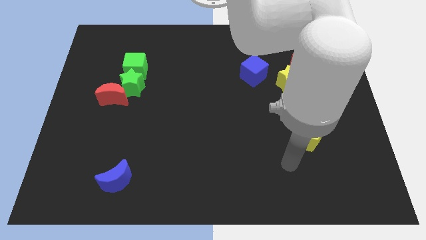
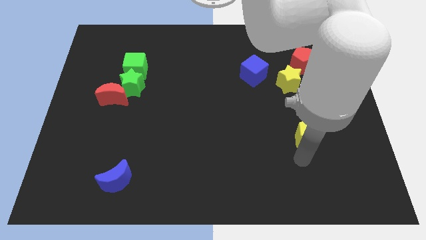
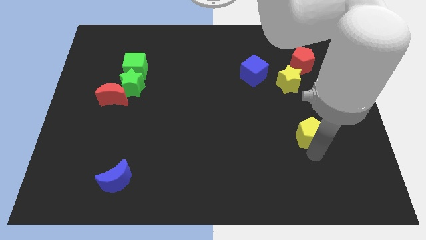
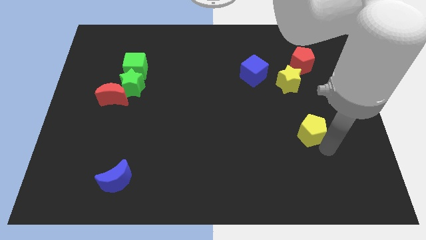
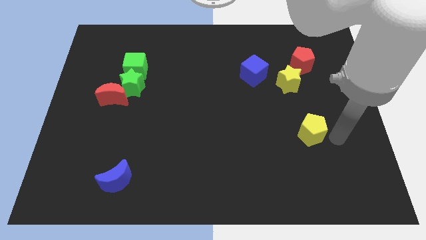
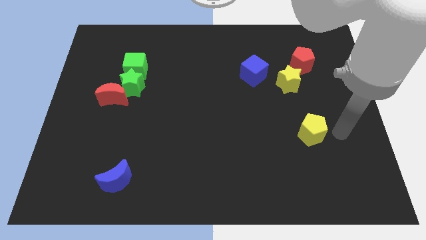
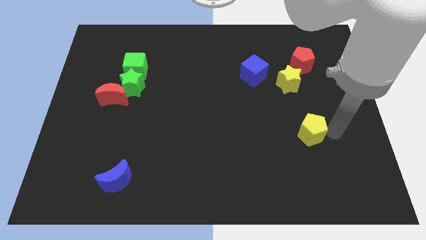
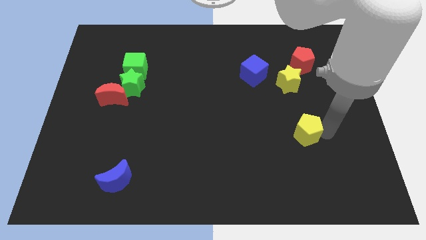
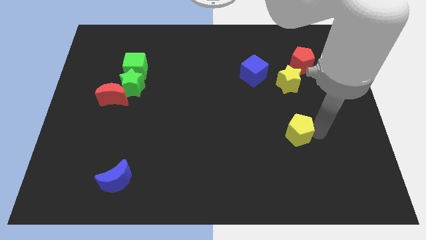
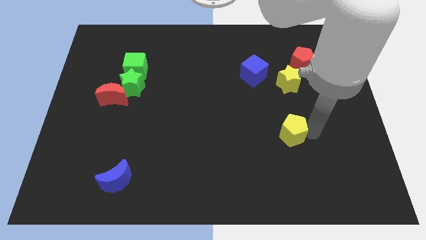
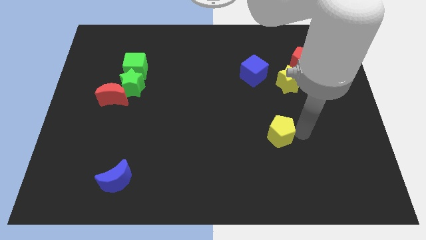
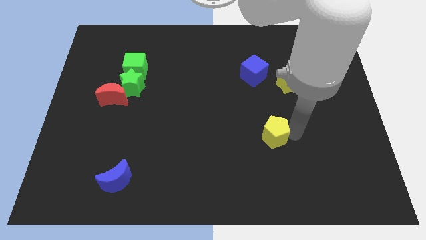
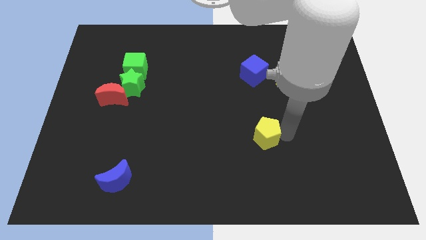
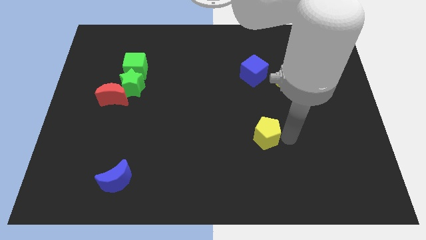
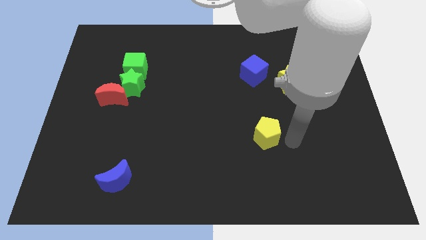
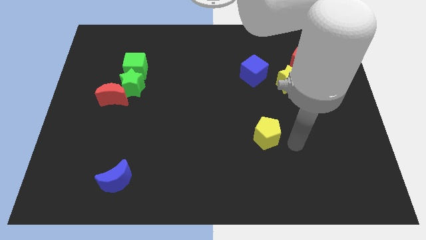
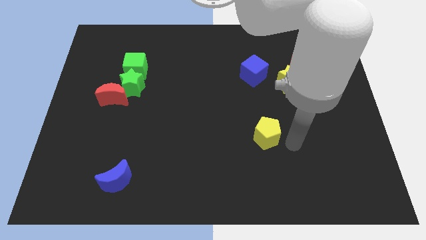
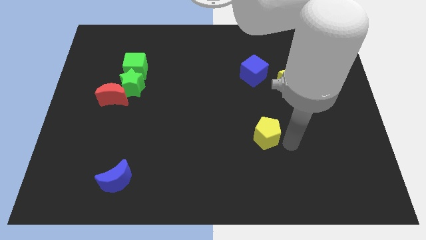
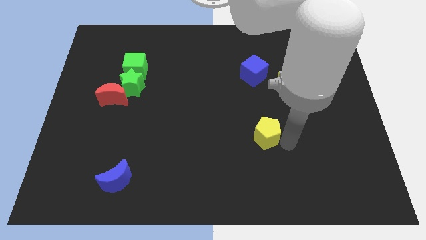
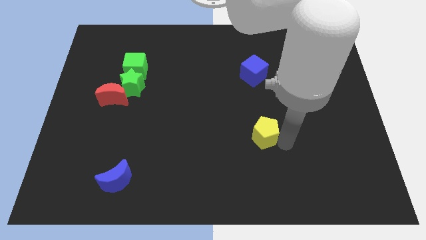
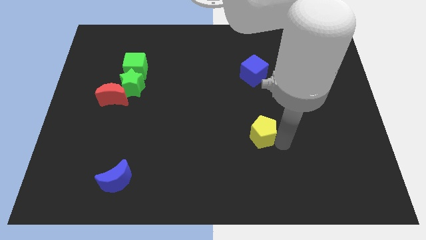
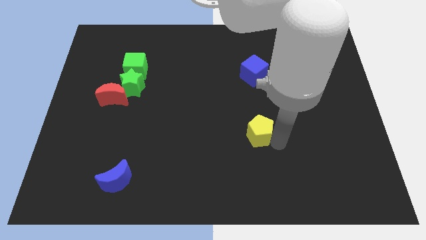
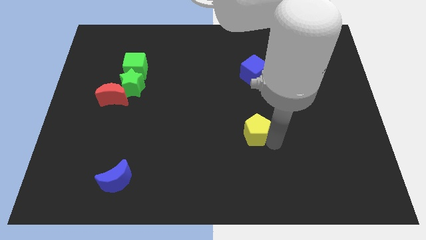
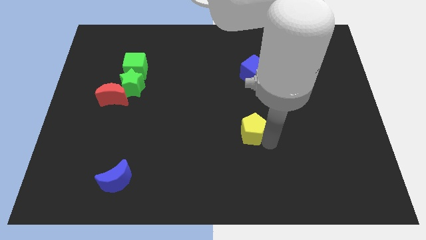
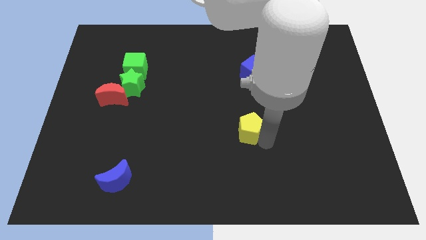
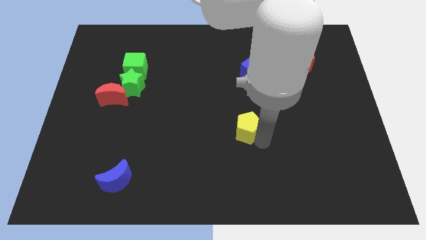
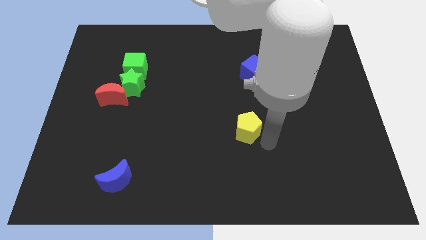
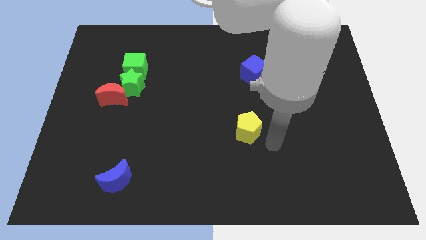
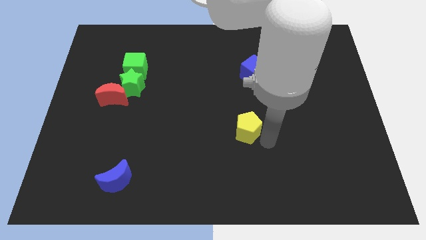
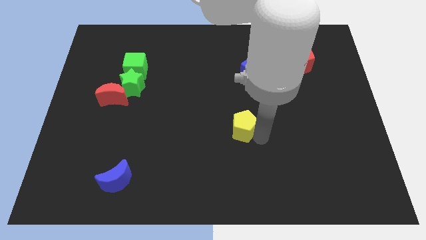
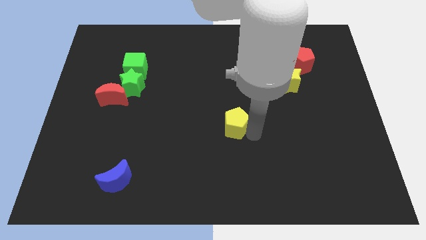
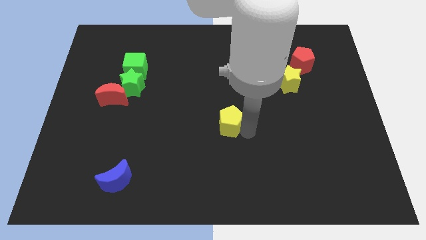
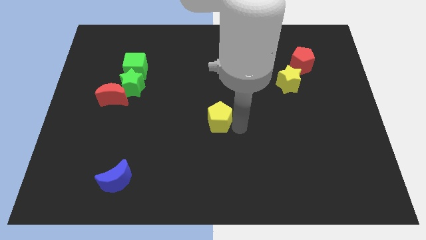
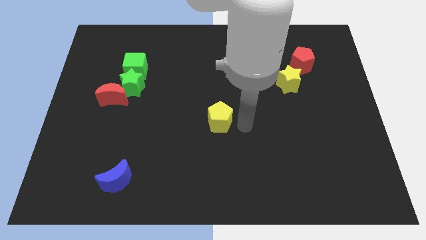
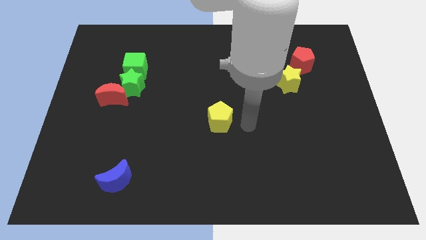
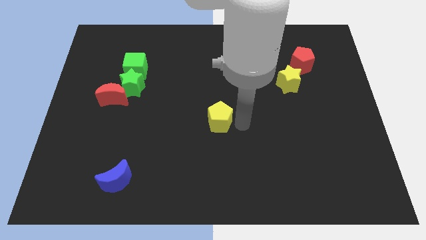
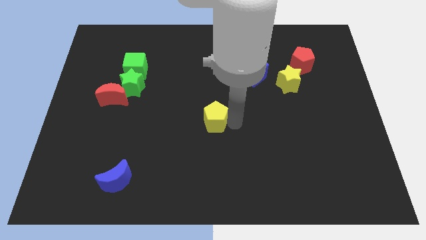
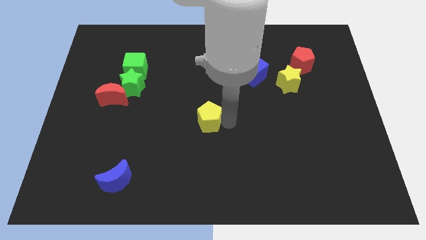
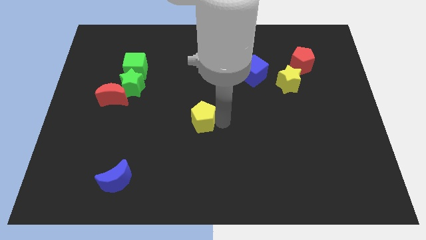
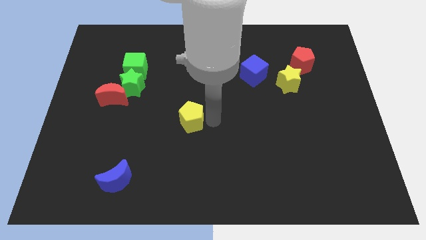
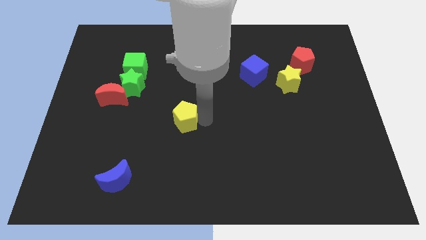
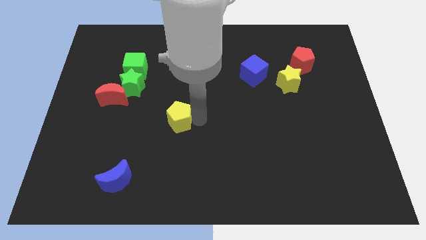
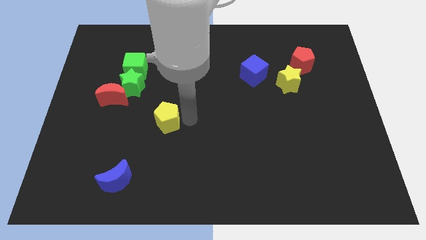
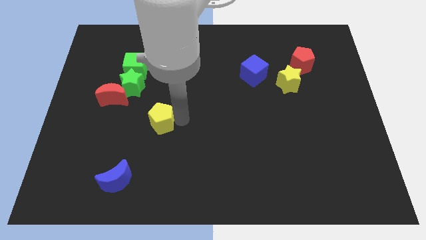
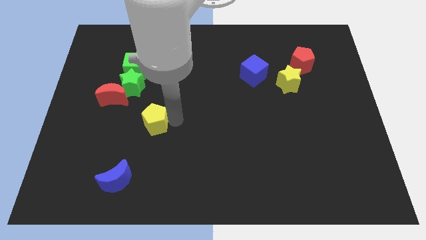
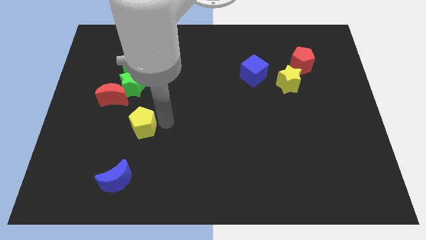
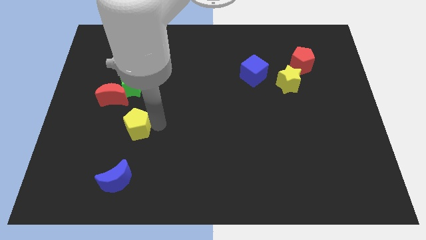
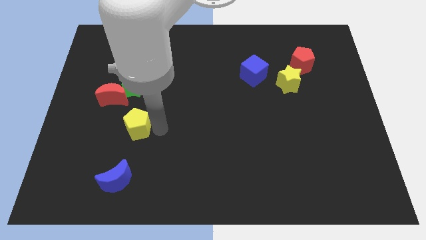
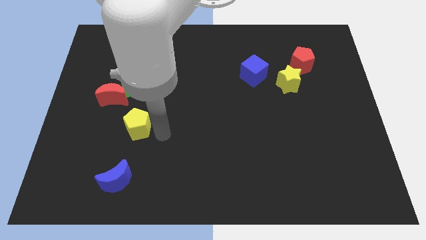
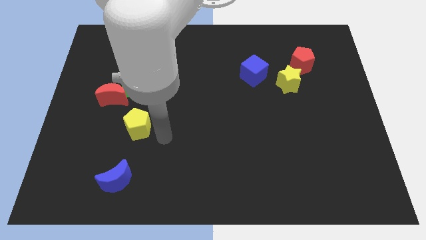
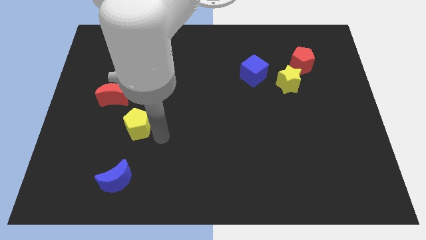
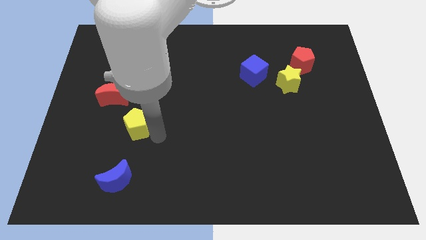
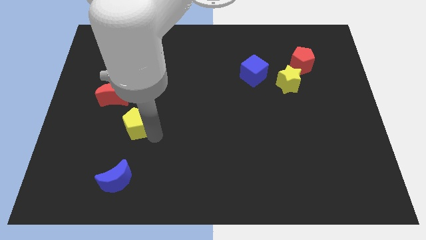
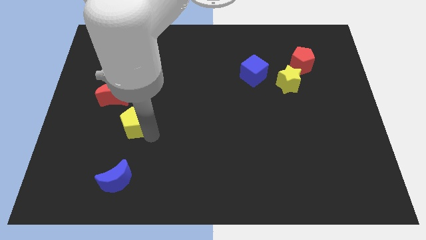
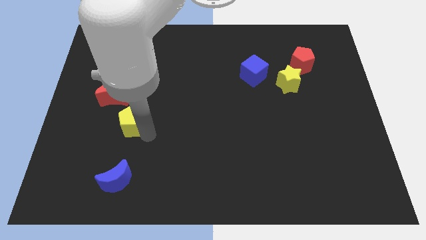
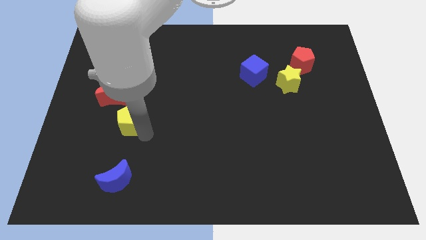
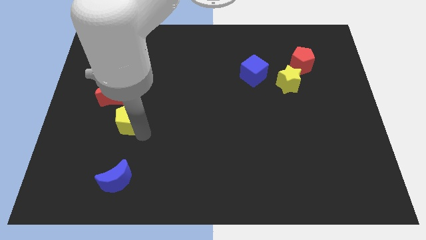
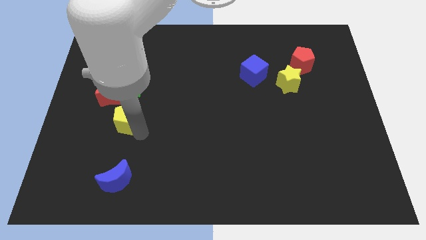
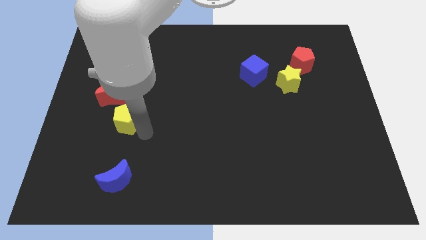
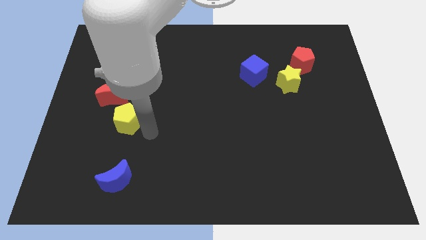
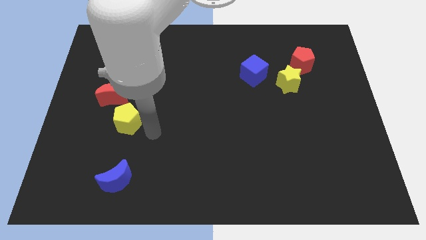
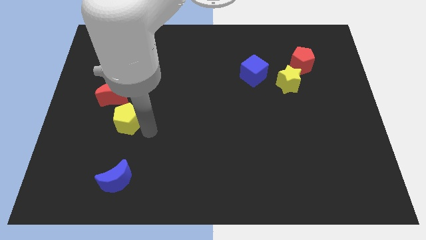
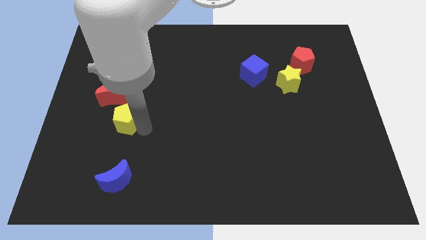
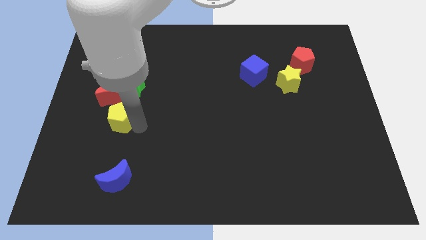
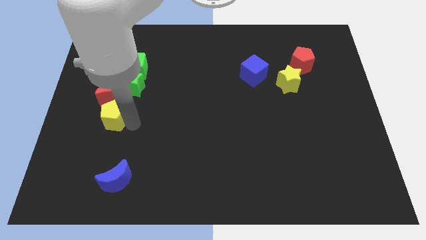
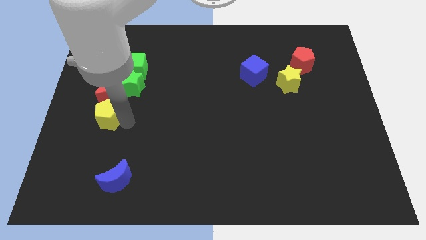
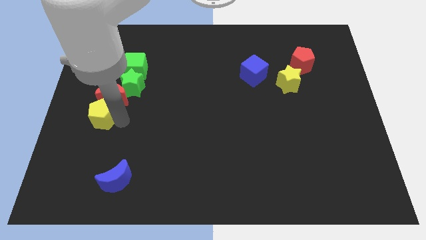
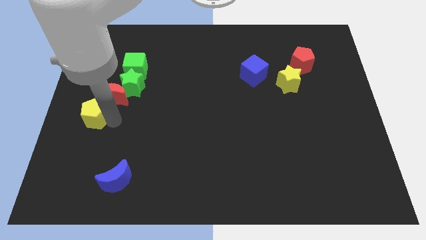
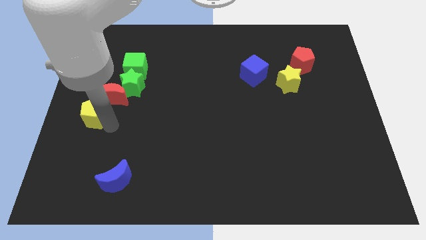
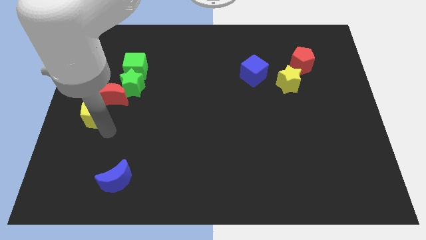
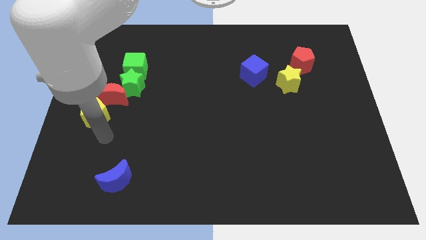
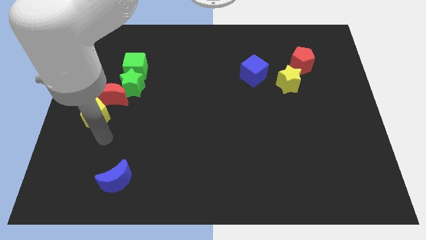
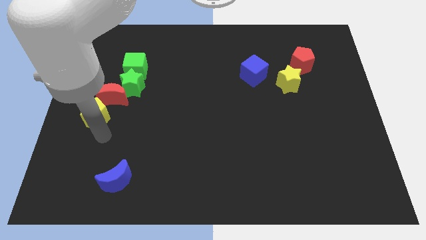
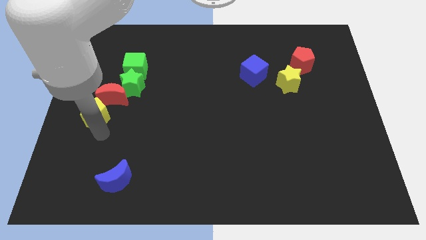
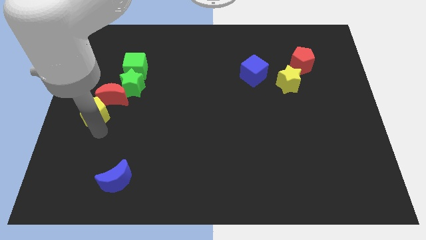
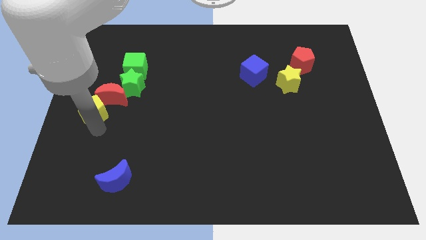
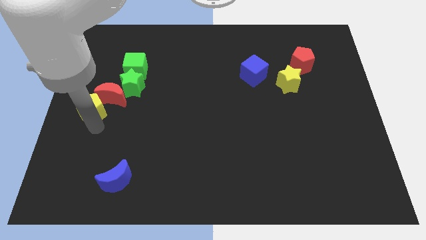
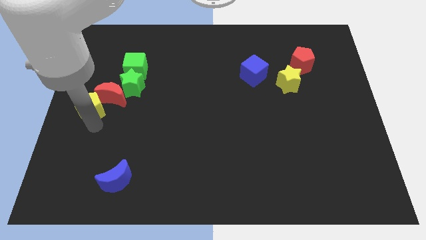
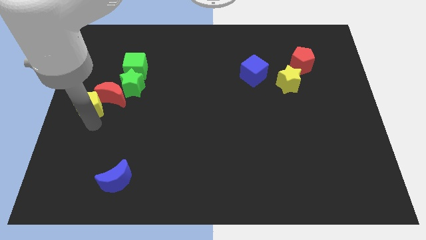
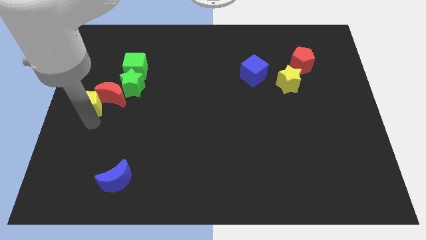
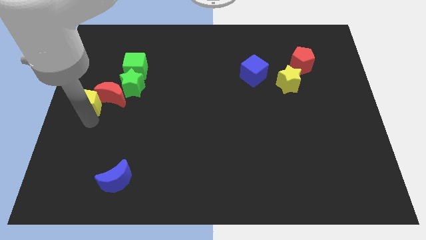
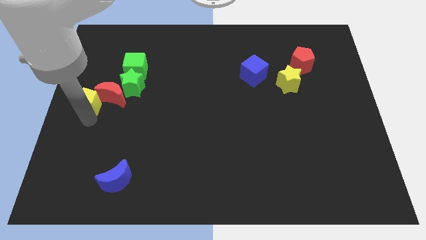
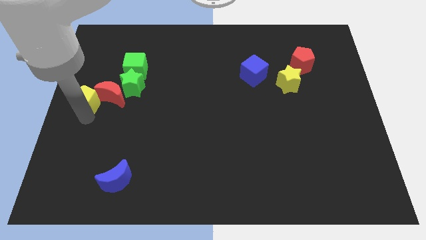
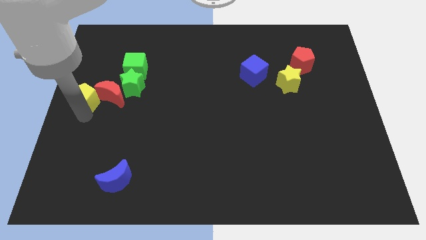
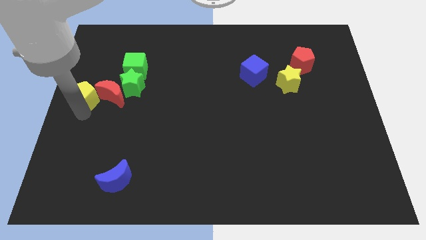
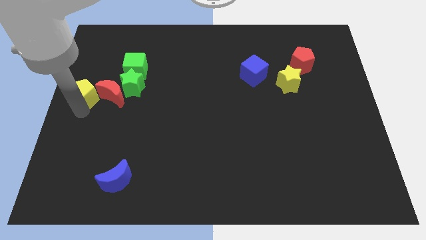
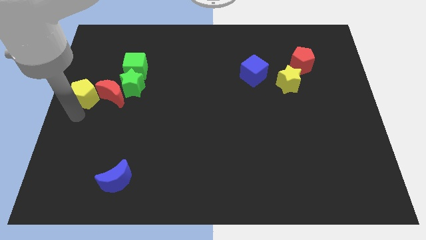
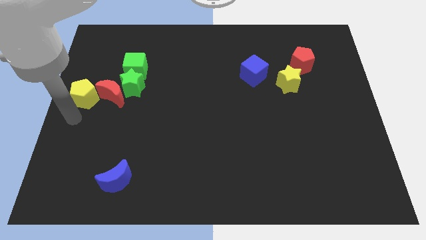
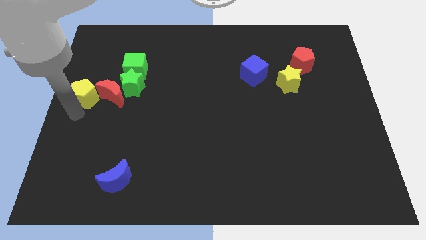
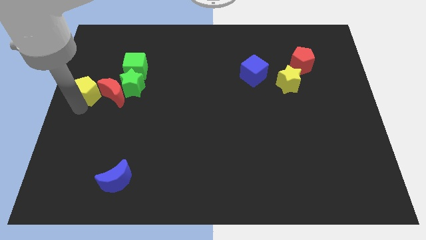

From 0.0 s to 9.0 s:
slide the yellow pentagon to the top left side of the red moon
